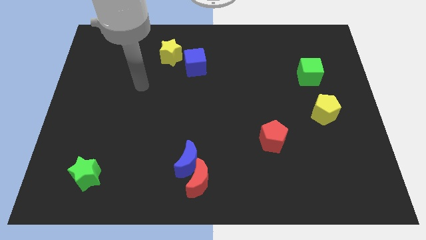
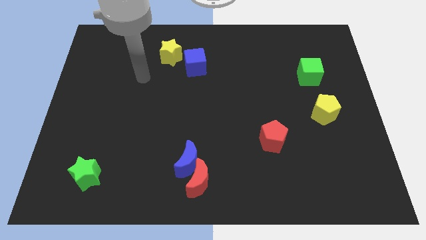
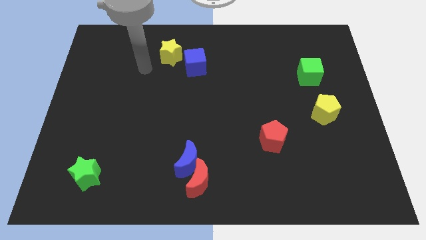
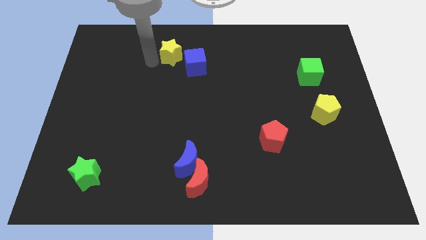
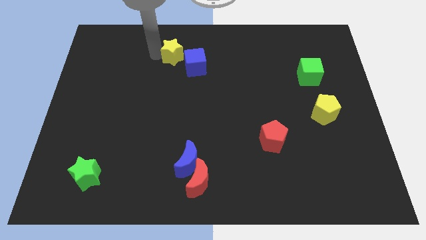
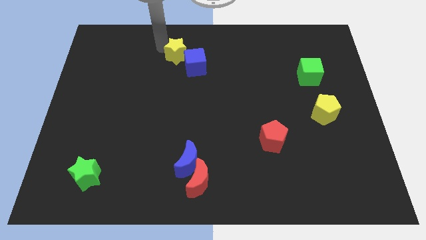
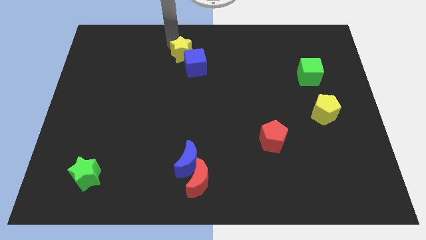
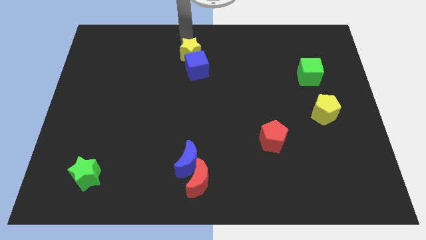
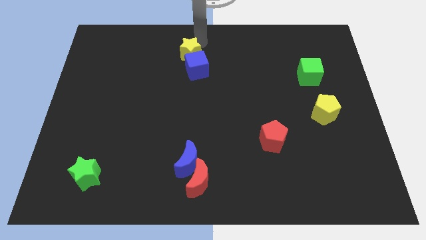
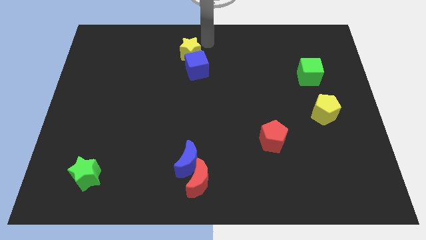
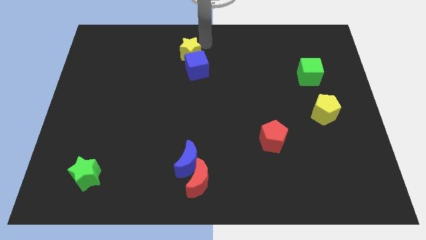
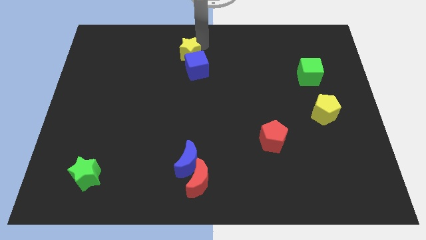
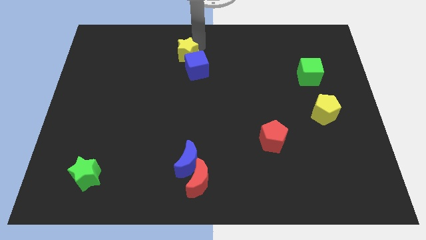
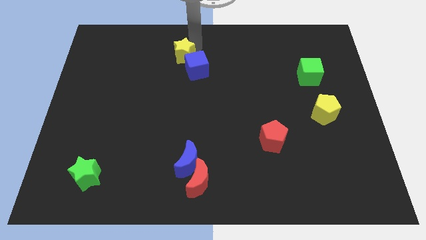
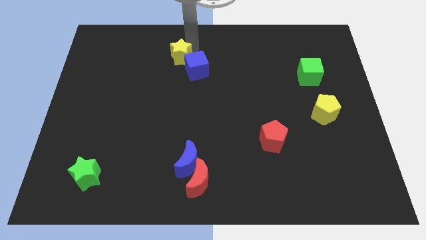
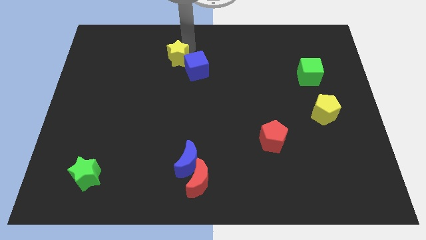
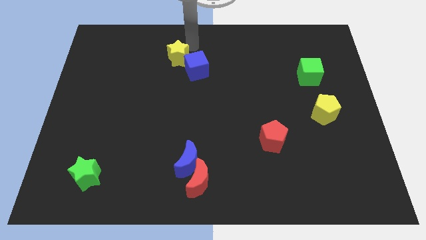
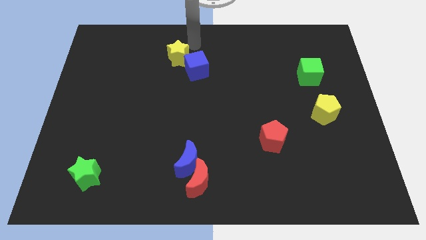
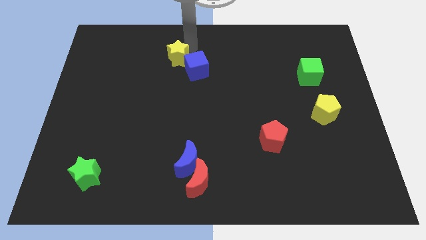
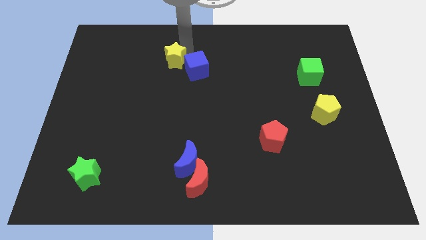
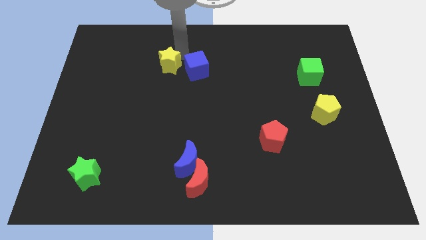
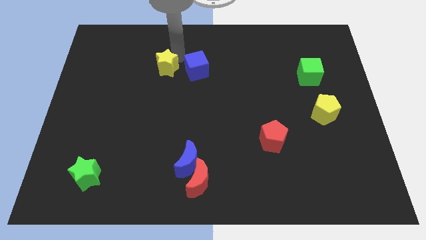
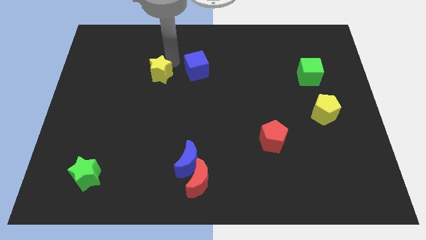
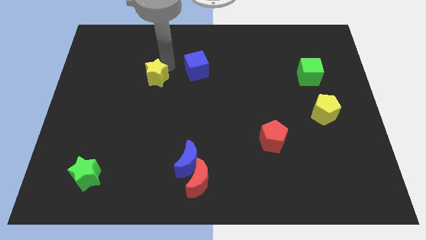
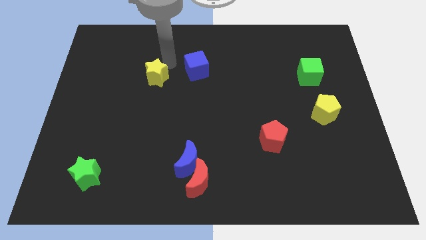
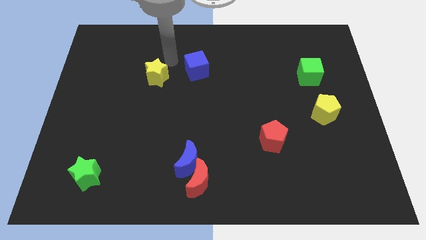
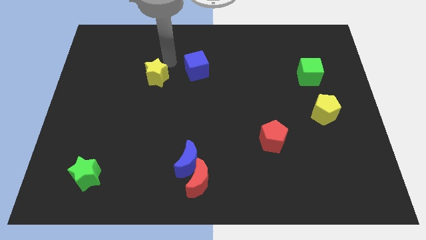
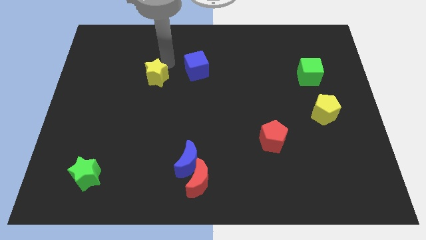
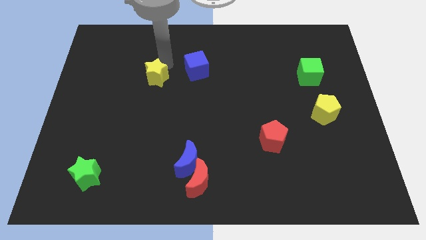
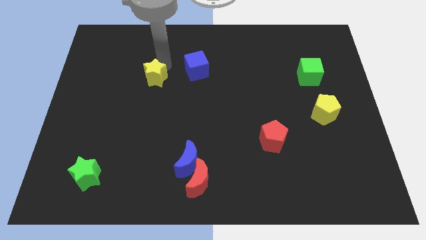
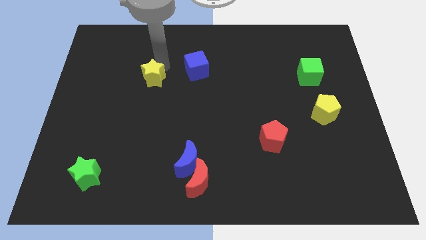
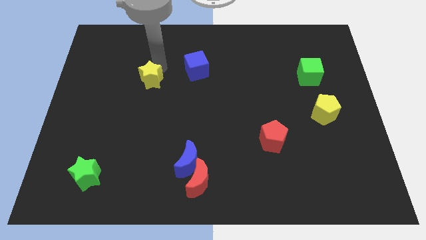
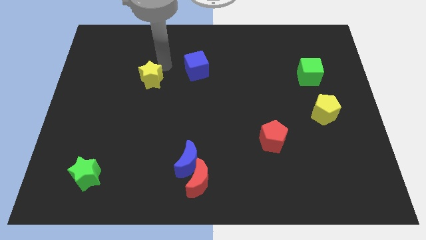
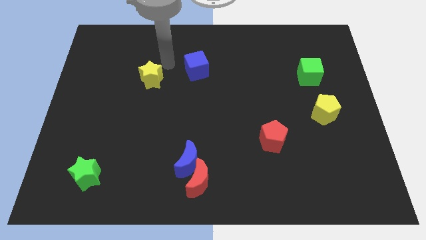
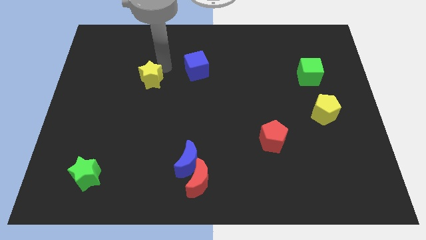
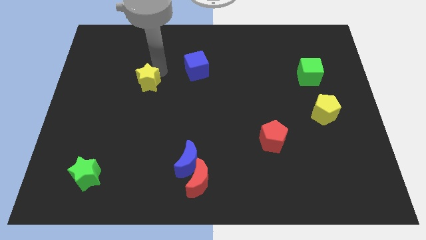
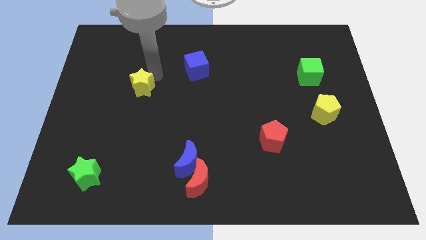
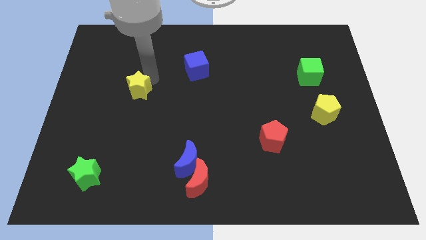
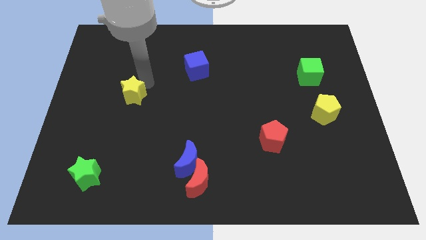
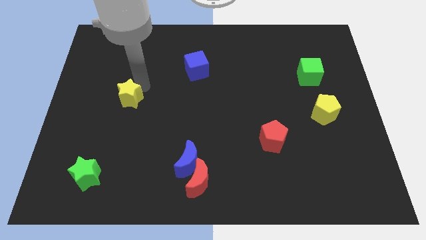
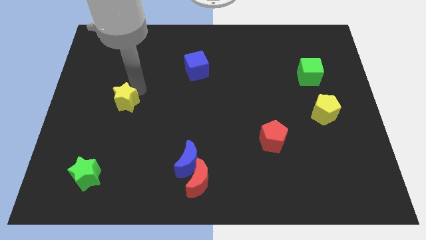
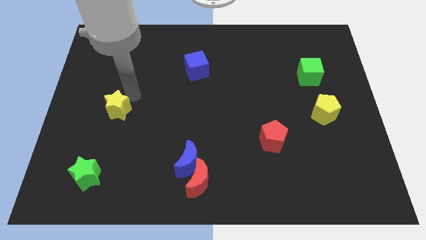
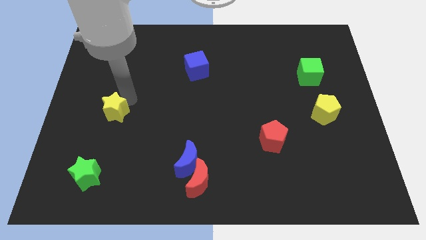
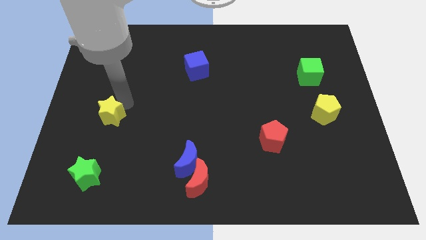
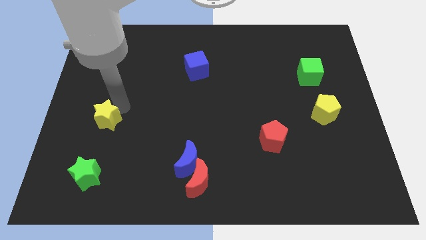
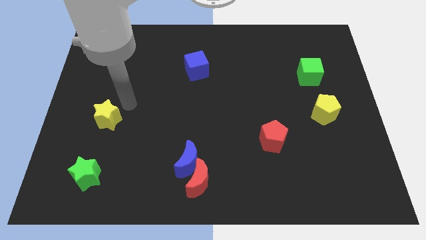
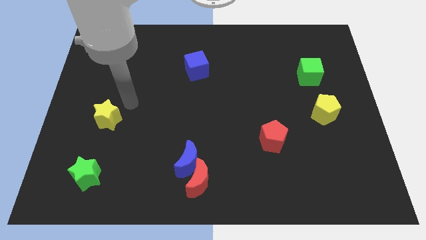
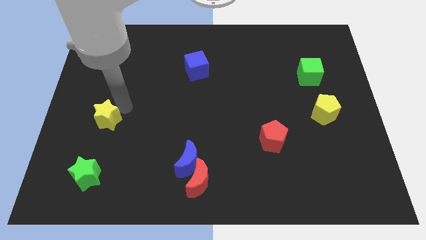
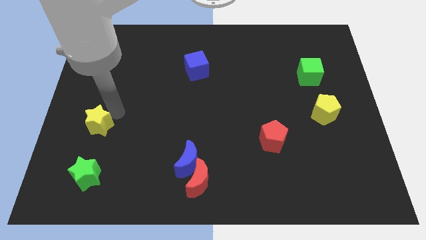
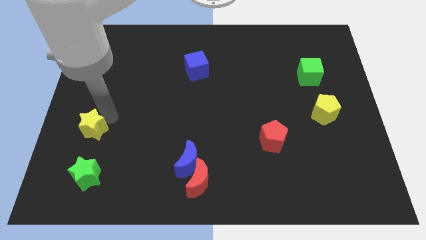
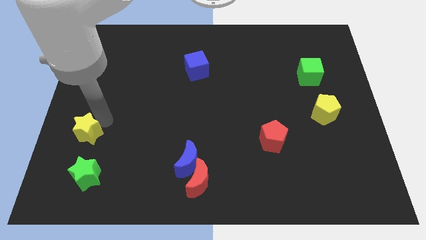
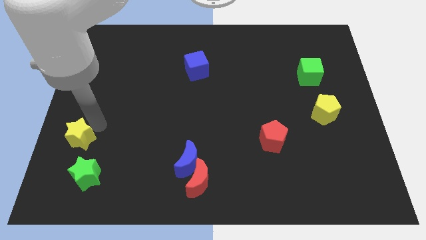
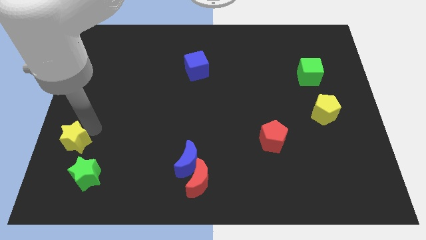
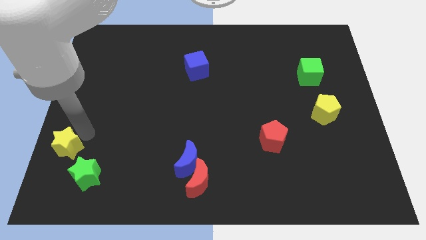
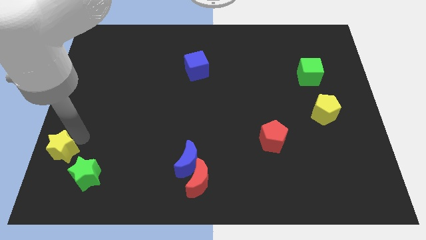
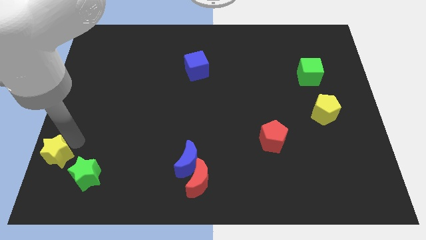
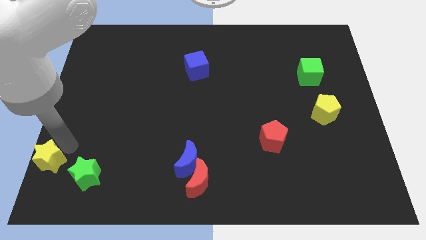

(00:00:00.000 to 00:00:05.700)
slide the yellow star to the bottom left of the board
